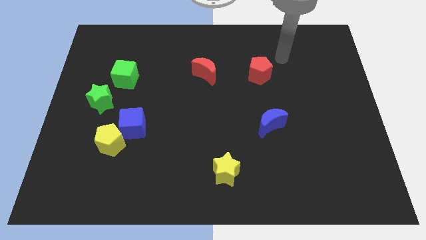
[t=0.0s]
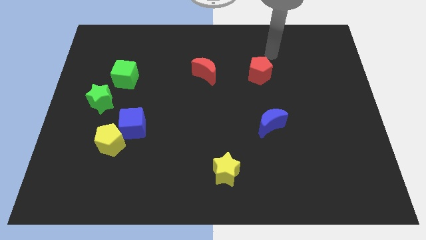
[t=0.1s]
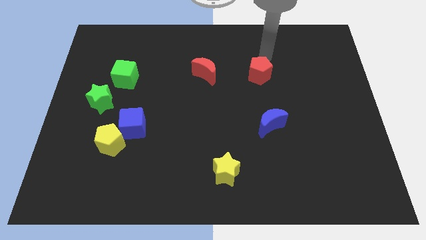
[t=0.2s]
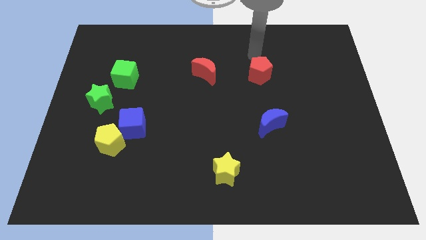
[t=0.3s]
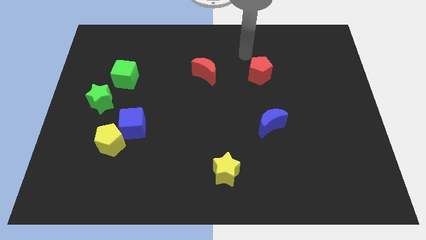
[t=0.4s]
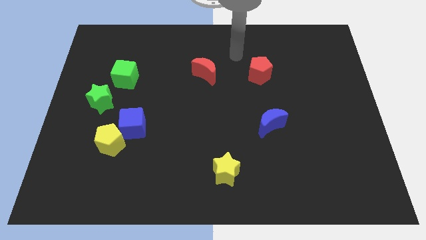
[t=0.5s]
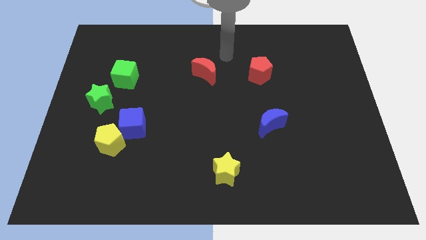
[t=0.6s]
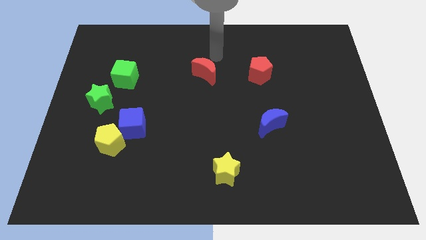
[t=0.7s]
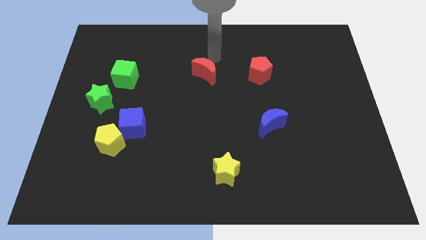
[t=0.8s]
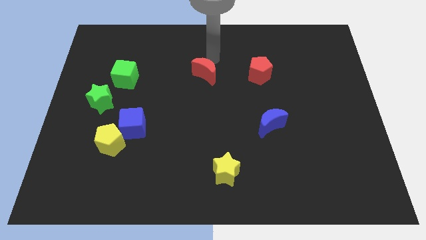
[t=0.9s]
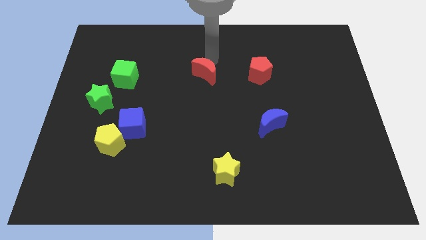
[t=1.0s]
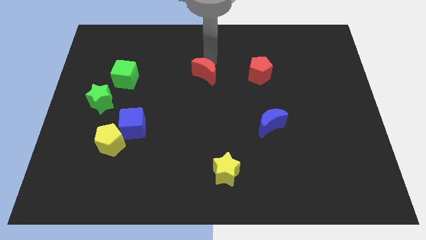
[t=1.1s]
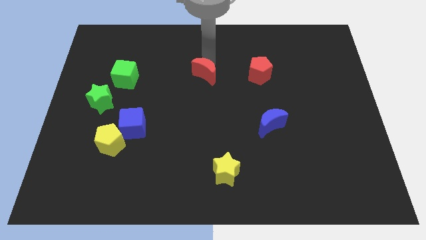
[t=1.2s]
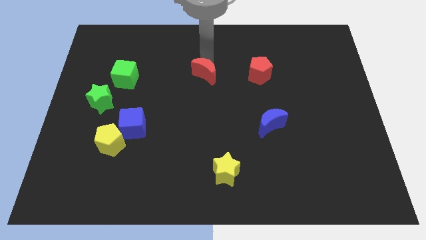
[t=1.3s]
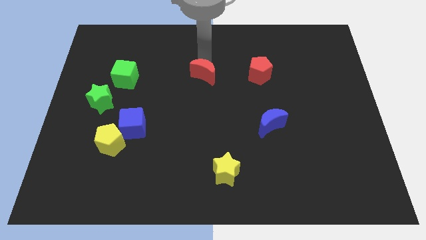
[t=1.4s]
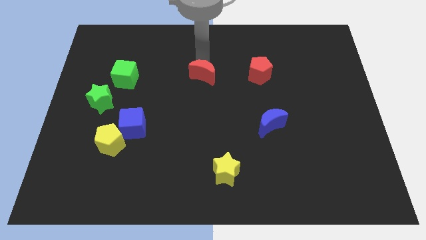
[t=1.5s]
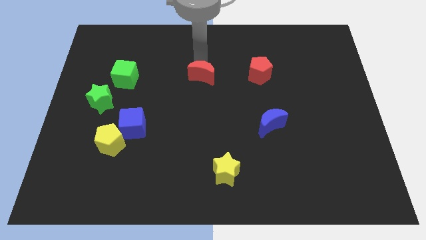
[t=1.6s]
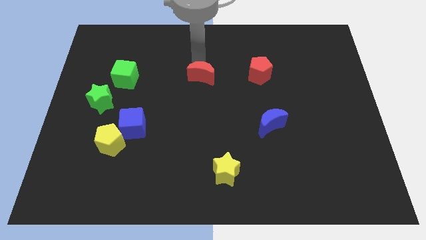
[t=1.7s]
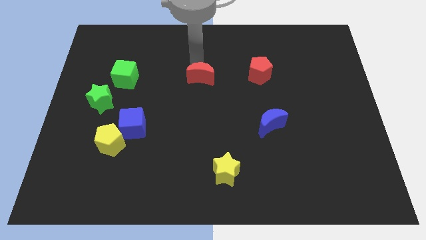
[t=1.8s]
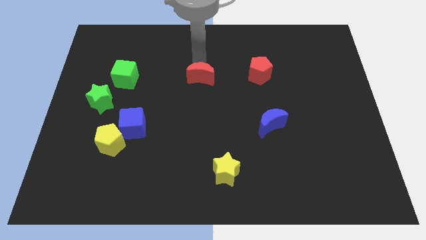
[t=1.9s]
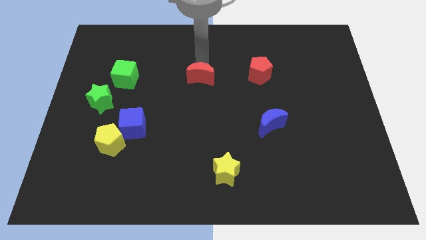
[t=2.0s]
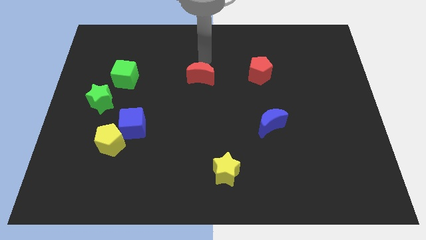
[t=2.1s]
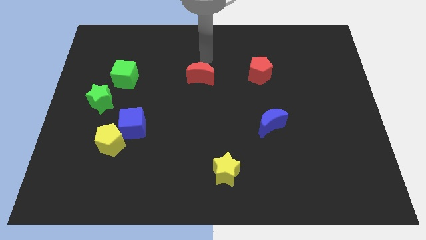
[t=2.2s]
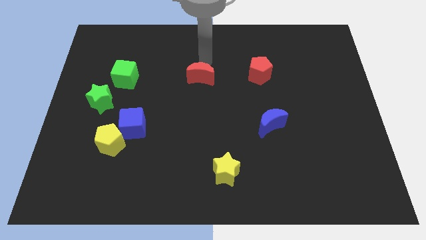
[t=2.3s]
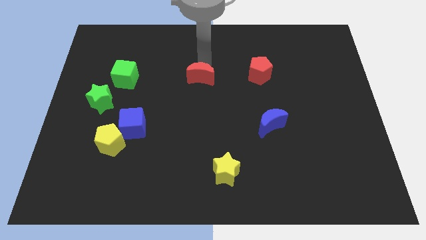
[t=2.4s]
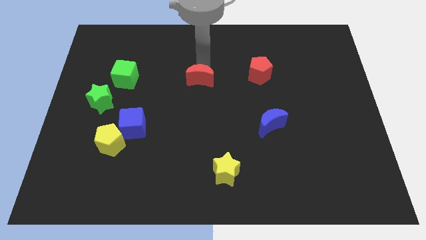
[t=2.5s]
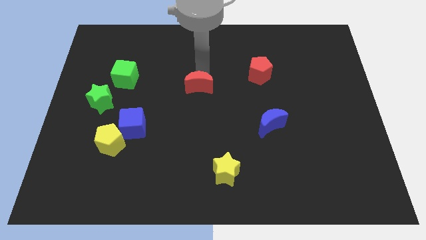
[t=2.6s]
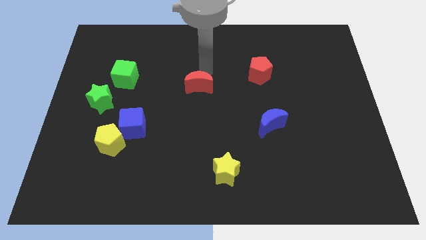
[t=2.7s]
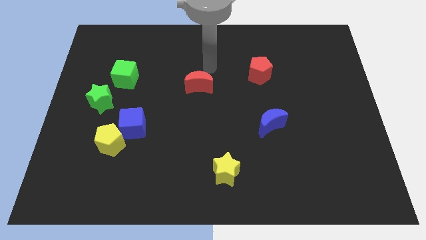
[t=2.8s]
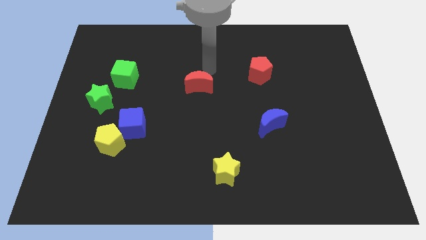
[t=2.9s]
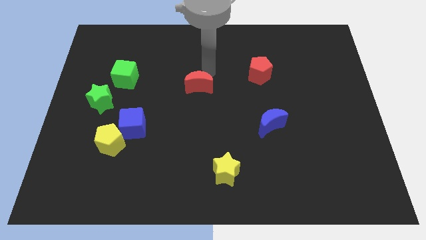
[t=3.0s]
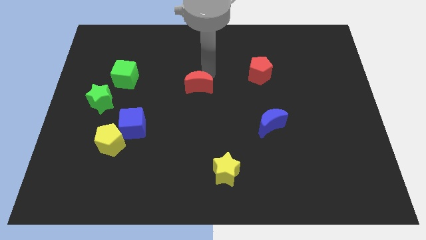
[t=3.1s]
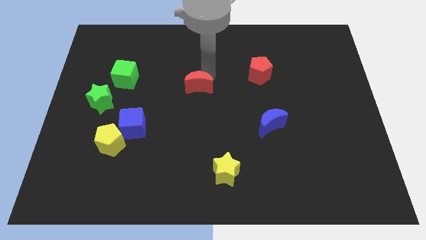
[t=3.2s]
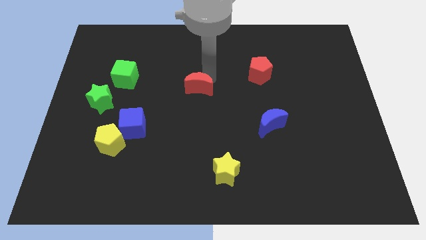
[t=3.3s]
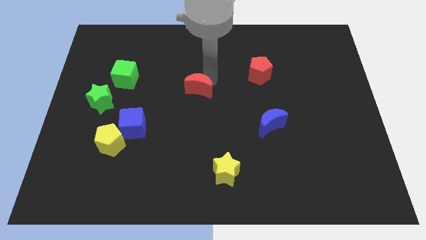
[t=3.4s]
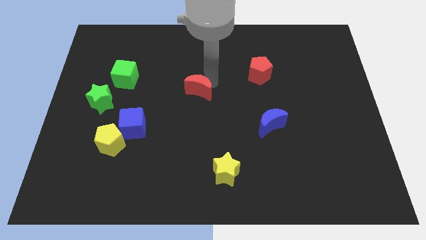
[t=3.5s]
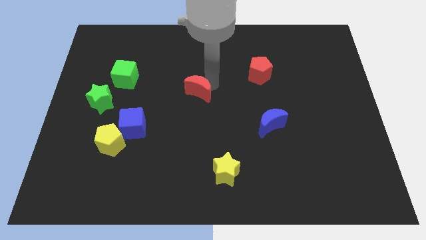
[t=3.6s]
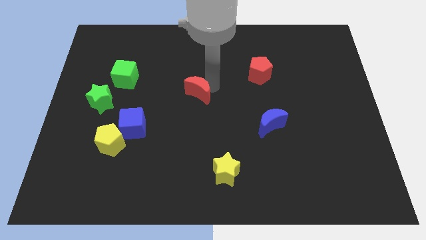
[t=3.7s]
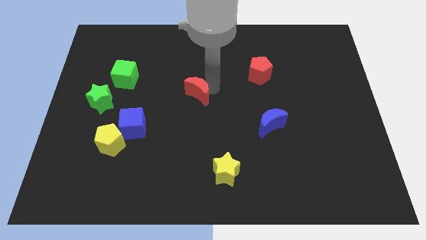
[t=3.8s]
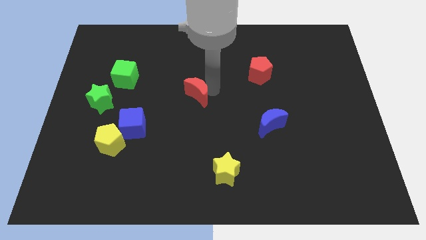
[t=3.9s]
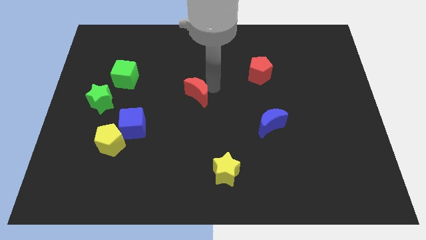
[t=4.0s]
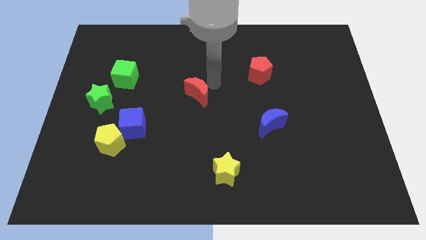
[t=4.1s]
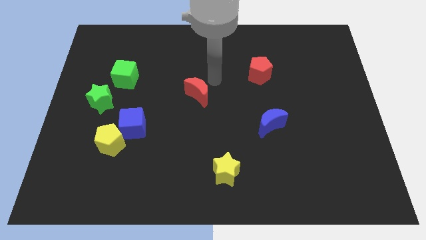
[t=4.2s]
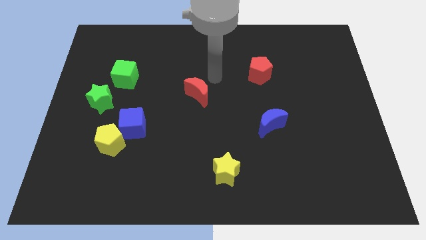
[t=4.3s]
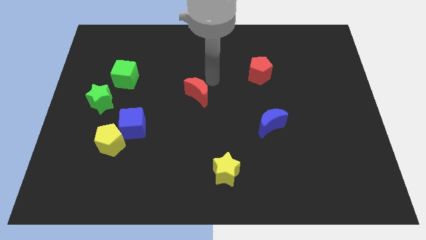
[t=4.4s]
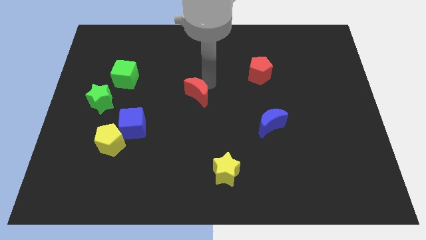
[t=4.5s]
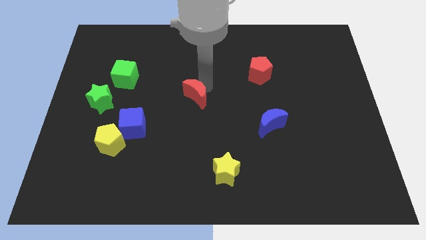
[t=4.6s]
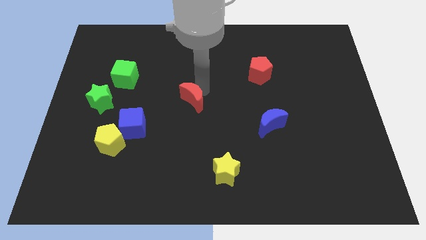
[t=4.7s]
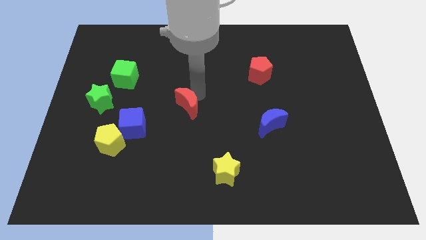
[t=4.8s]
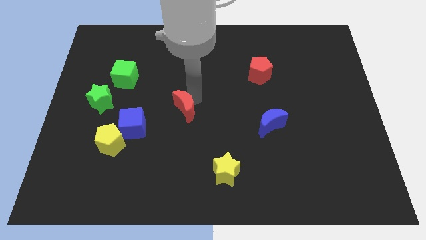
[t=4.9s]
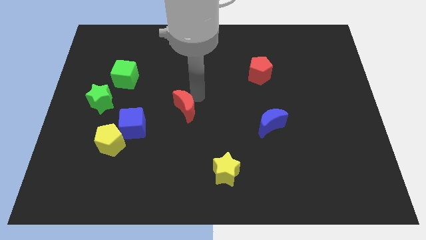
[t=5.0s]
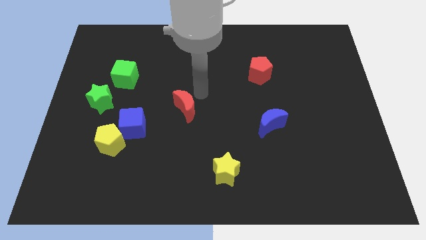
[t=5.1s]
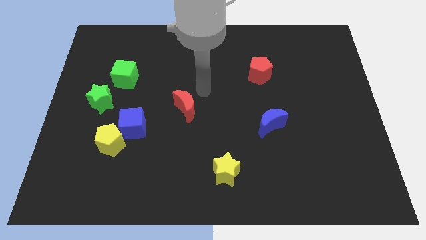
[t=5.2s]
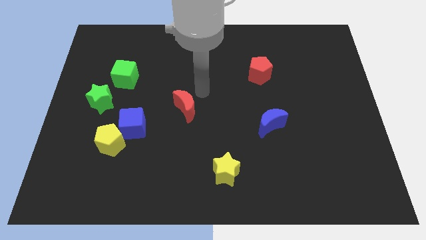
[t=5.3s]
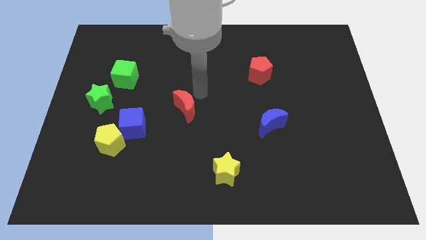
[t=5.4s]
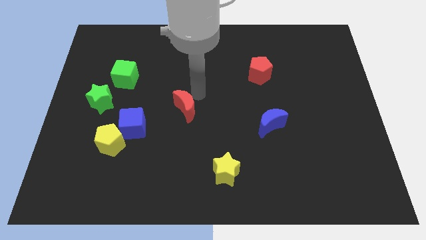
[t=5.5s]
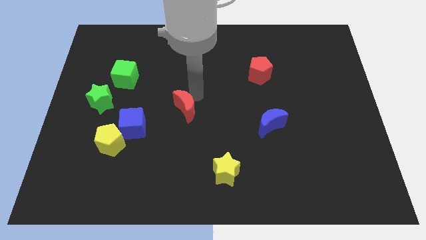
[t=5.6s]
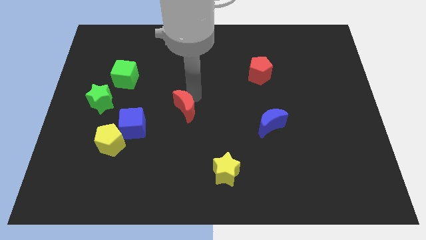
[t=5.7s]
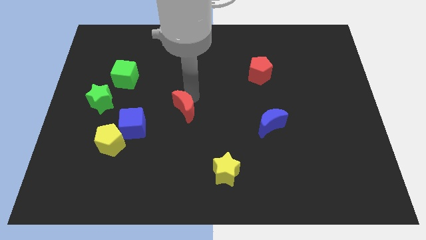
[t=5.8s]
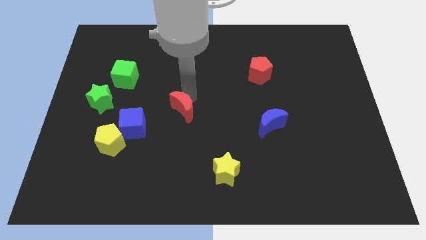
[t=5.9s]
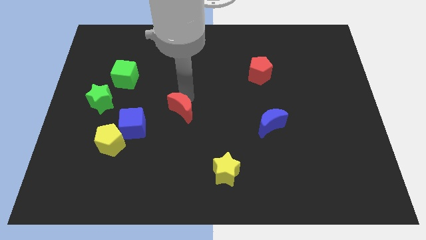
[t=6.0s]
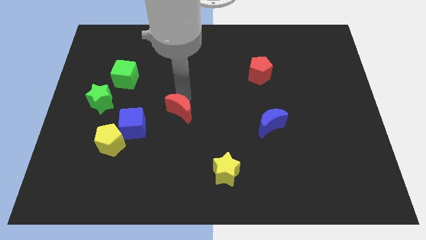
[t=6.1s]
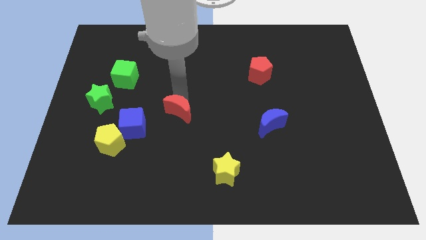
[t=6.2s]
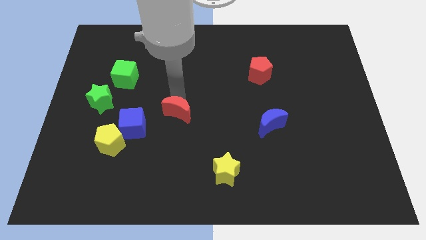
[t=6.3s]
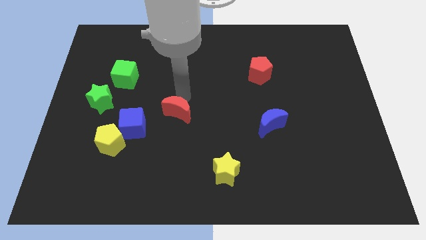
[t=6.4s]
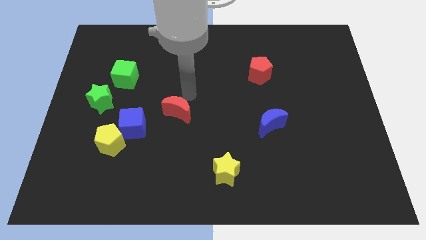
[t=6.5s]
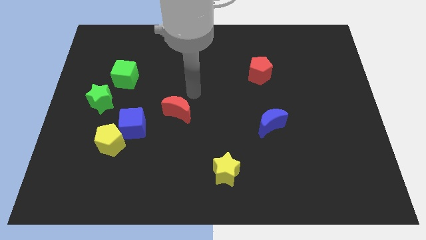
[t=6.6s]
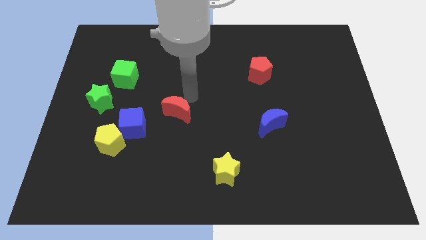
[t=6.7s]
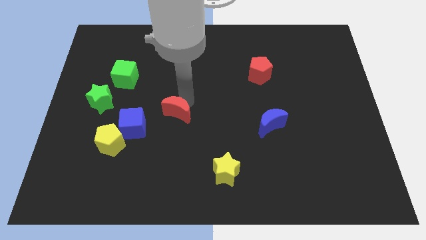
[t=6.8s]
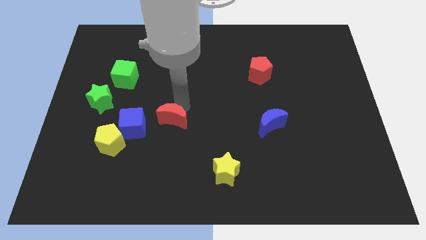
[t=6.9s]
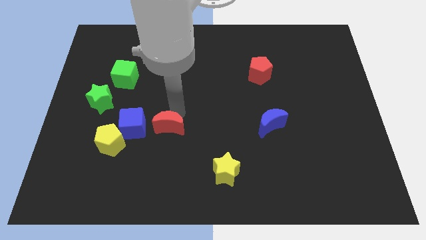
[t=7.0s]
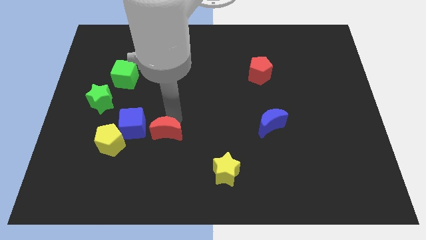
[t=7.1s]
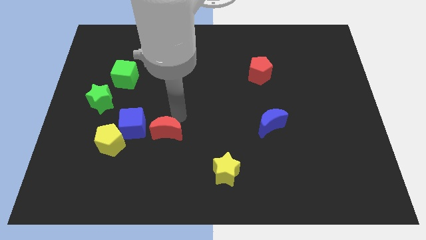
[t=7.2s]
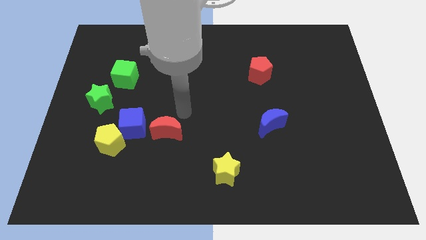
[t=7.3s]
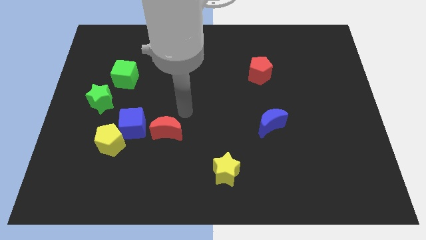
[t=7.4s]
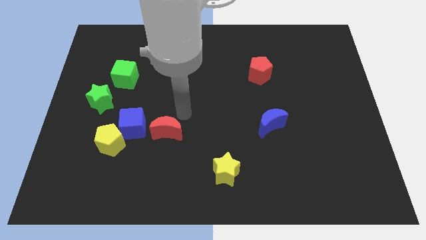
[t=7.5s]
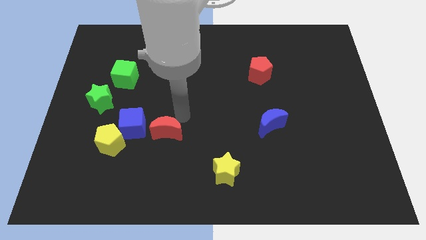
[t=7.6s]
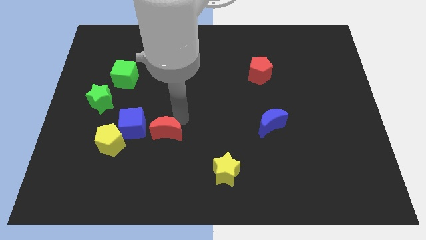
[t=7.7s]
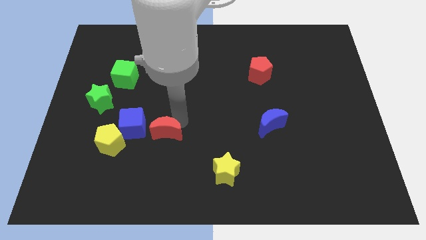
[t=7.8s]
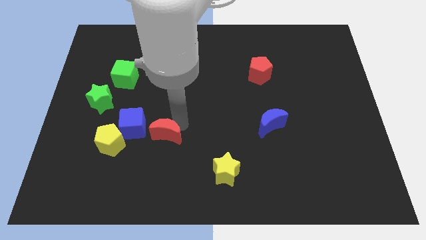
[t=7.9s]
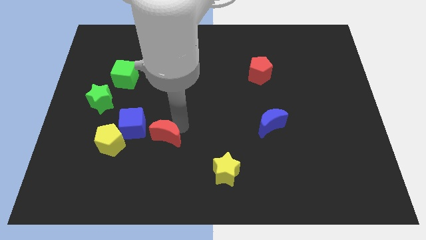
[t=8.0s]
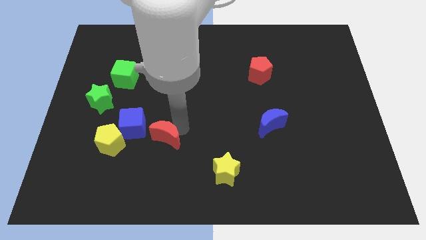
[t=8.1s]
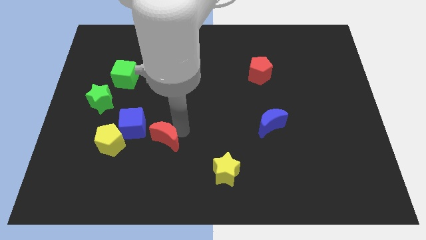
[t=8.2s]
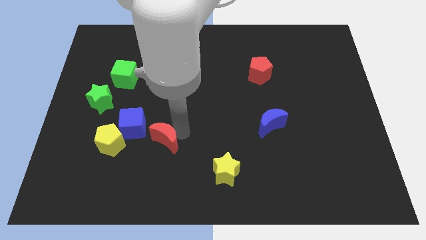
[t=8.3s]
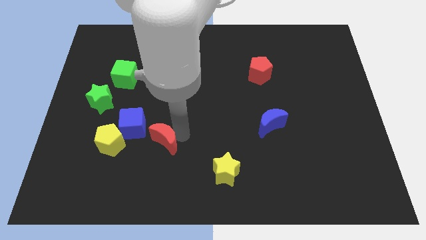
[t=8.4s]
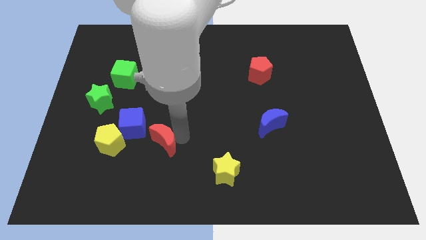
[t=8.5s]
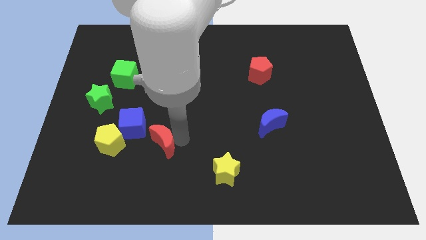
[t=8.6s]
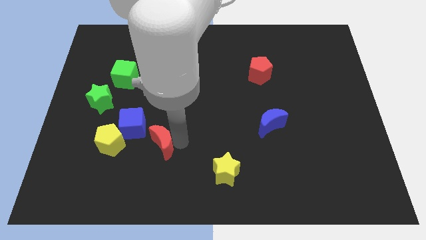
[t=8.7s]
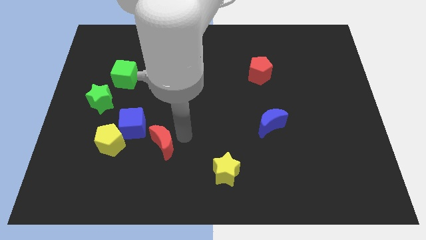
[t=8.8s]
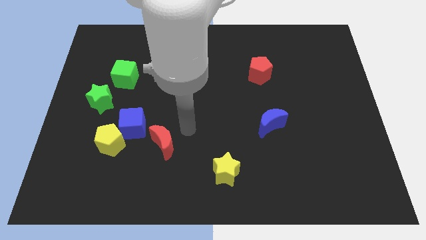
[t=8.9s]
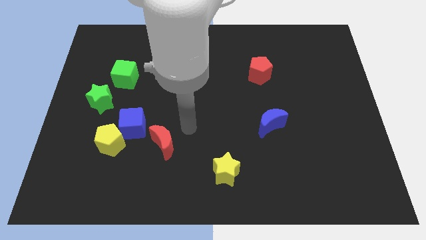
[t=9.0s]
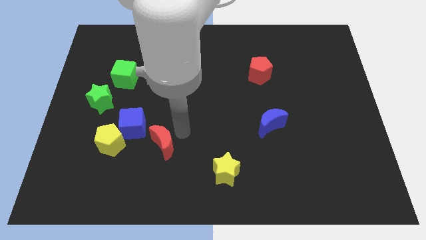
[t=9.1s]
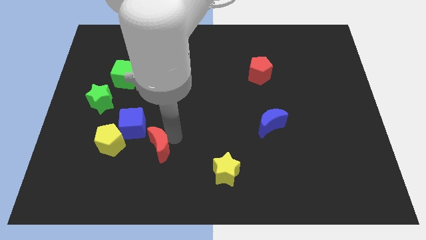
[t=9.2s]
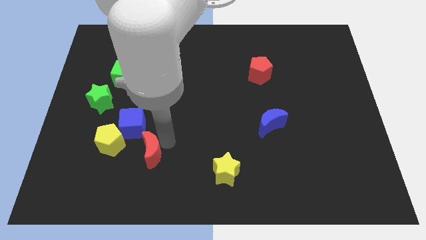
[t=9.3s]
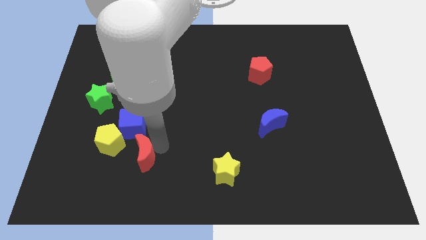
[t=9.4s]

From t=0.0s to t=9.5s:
slide the red moon to the bottom right side of the yellow pentagon
